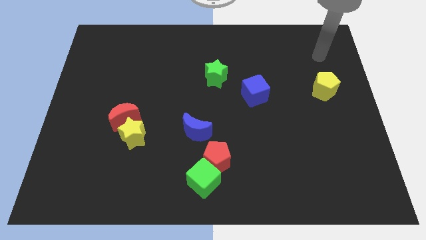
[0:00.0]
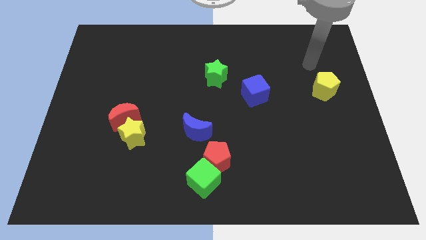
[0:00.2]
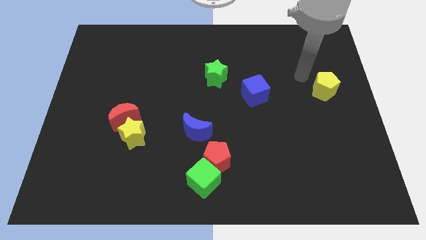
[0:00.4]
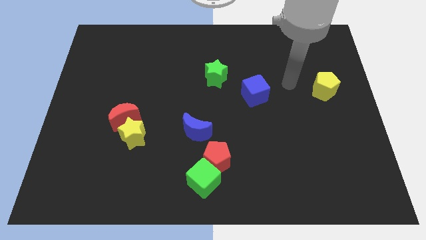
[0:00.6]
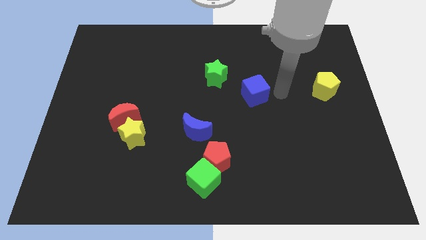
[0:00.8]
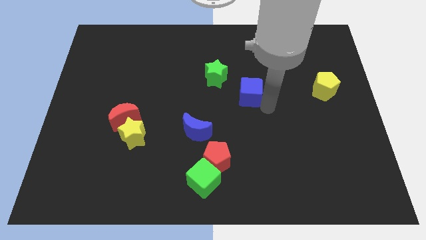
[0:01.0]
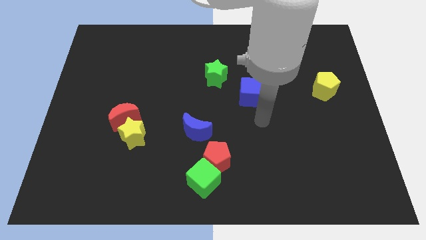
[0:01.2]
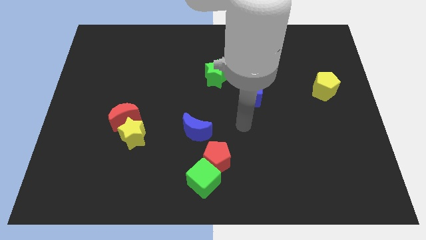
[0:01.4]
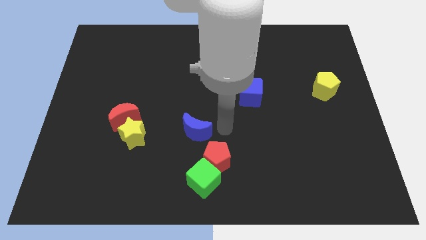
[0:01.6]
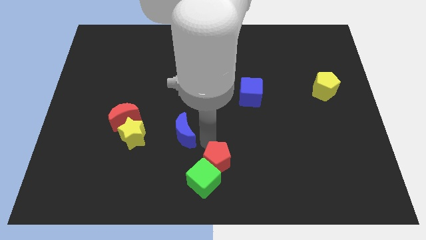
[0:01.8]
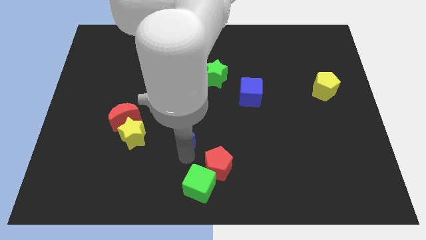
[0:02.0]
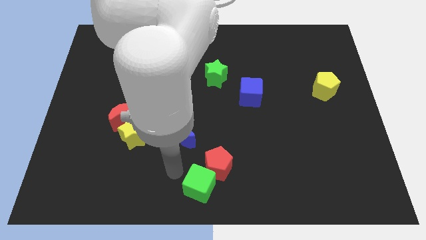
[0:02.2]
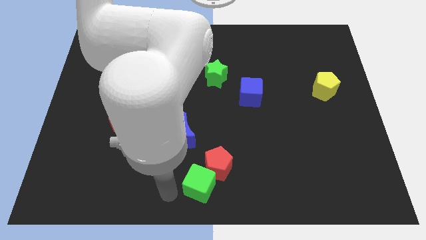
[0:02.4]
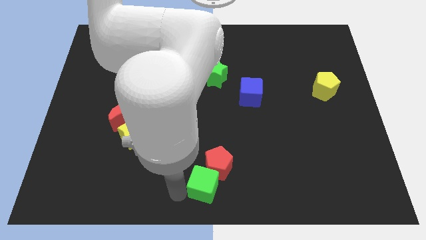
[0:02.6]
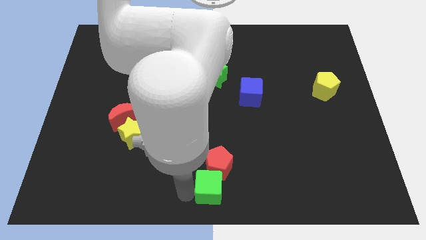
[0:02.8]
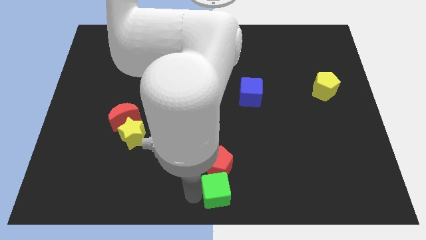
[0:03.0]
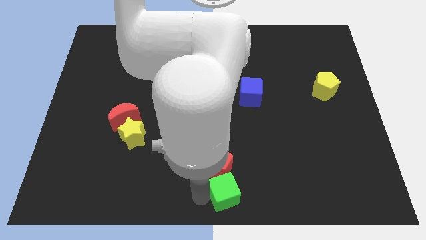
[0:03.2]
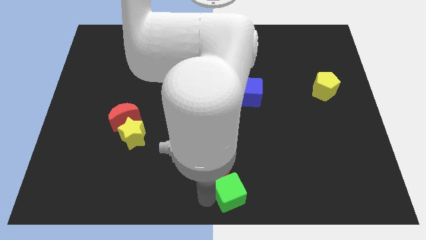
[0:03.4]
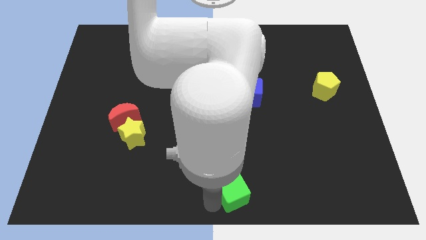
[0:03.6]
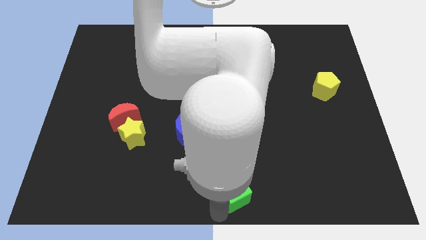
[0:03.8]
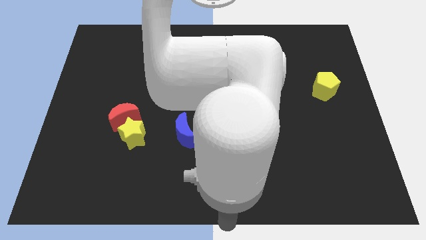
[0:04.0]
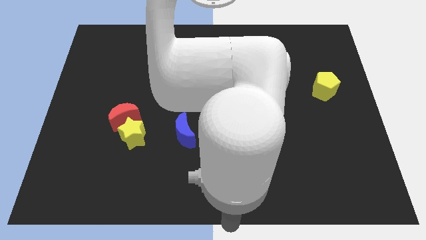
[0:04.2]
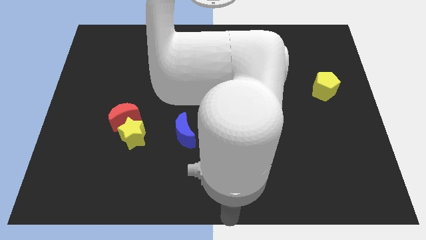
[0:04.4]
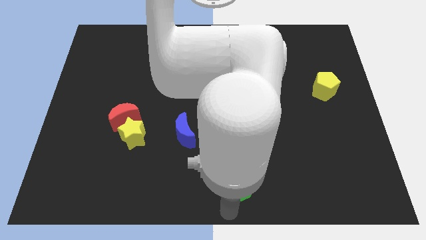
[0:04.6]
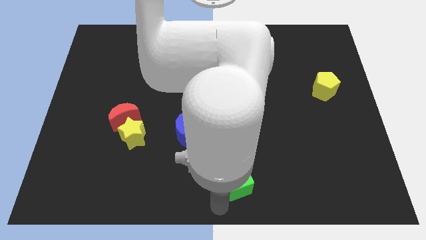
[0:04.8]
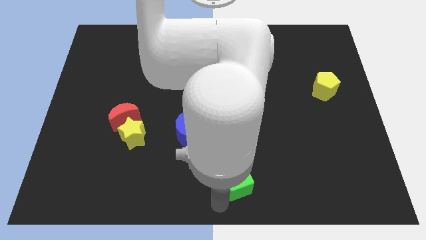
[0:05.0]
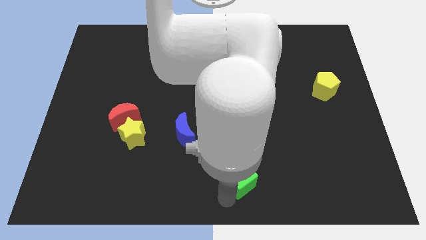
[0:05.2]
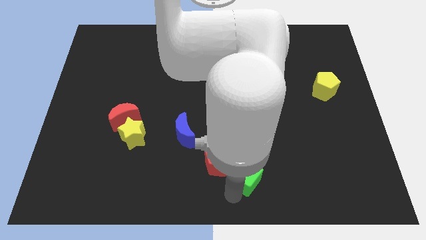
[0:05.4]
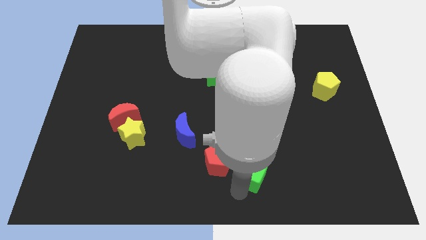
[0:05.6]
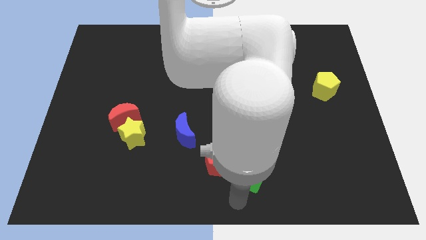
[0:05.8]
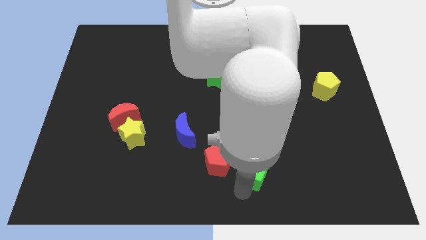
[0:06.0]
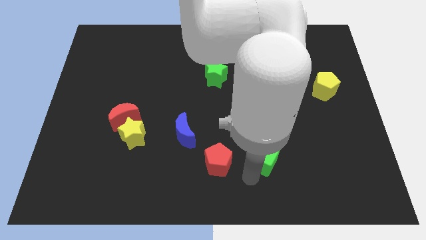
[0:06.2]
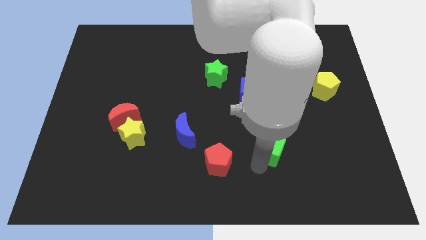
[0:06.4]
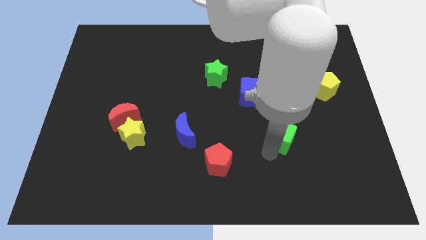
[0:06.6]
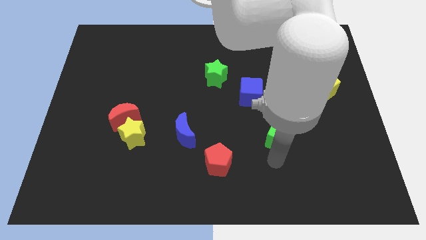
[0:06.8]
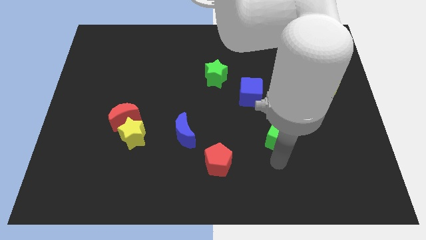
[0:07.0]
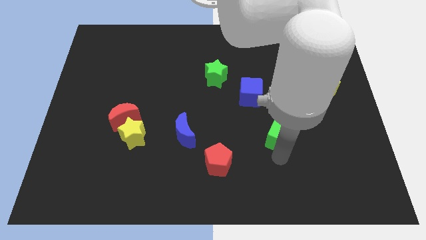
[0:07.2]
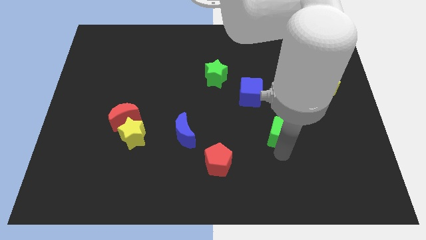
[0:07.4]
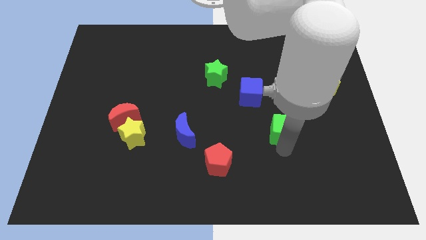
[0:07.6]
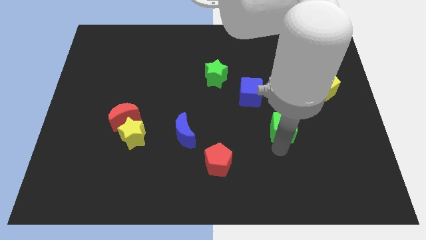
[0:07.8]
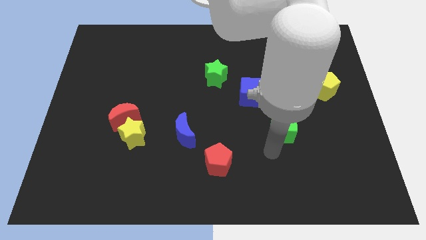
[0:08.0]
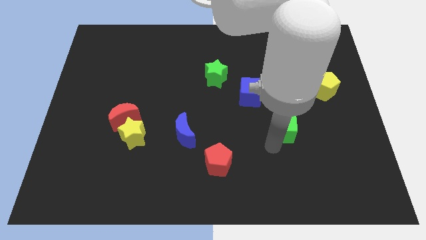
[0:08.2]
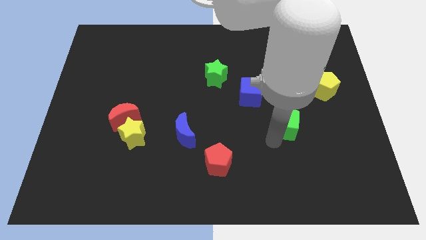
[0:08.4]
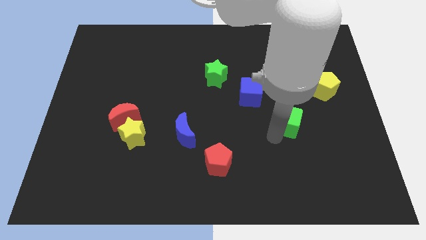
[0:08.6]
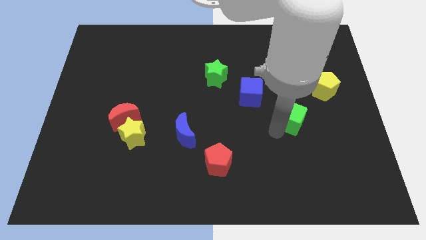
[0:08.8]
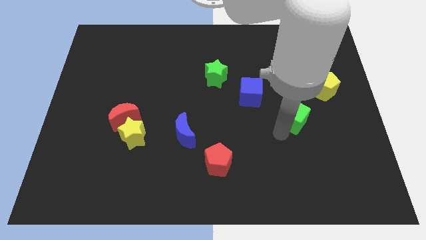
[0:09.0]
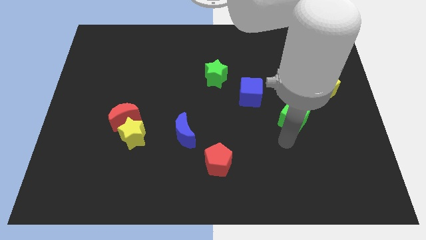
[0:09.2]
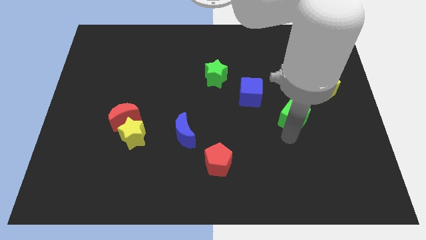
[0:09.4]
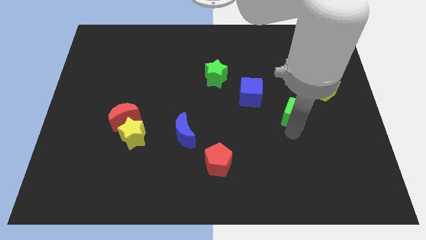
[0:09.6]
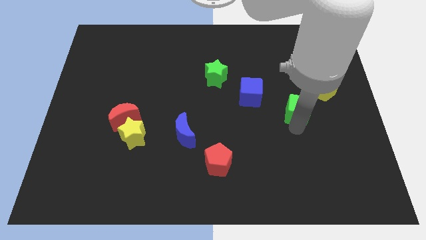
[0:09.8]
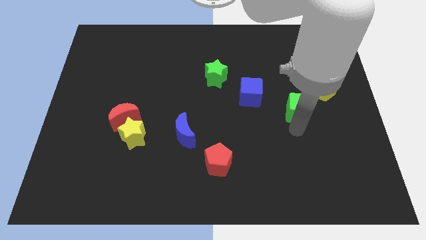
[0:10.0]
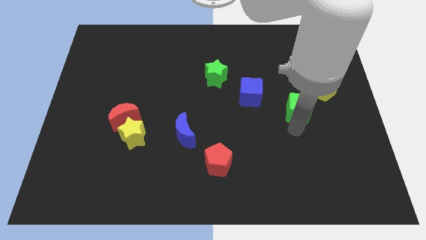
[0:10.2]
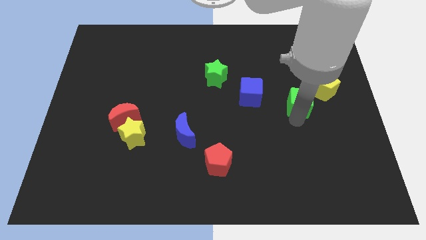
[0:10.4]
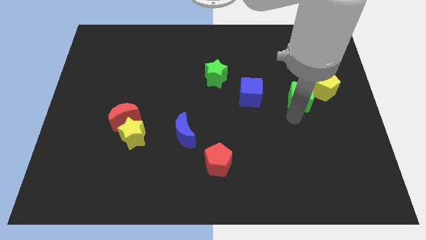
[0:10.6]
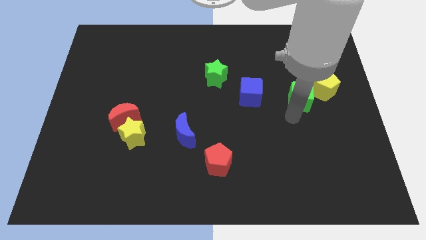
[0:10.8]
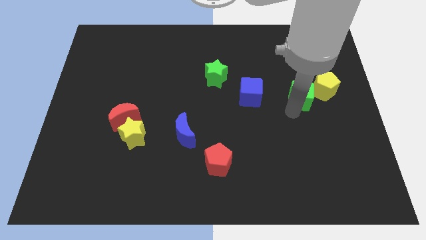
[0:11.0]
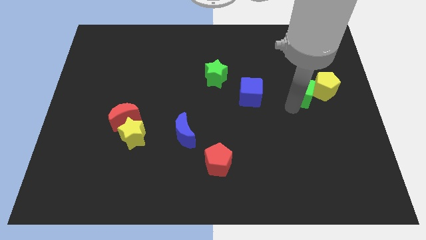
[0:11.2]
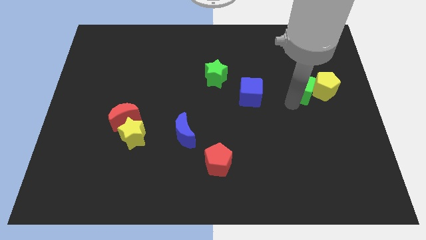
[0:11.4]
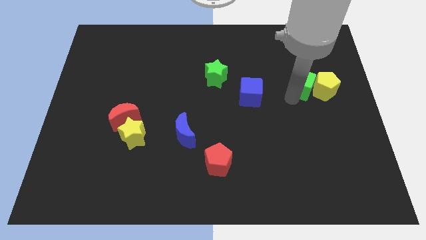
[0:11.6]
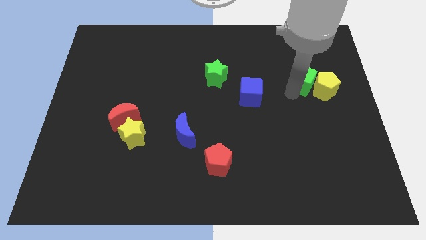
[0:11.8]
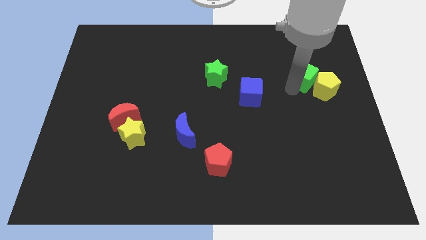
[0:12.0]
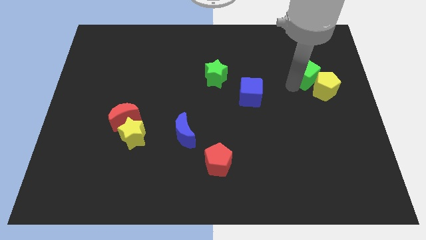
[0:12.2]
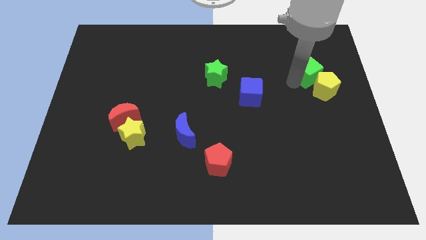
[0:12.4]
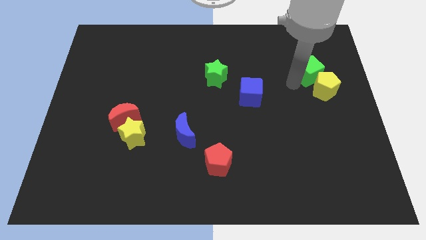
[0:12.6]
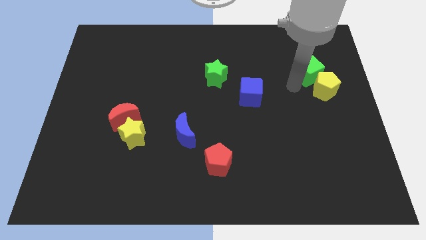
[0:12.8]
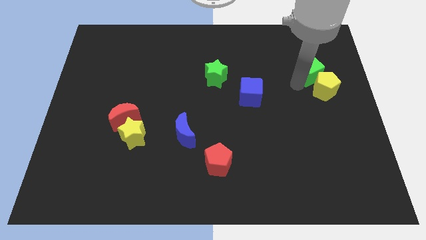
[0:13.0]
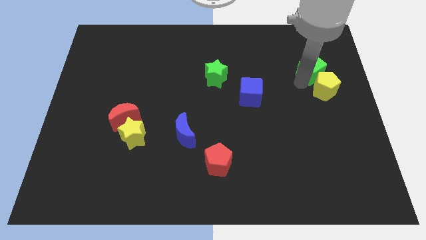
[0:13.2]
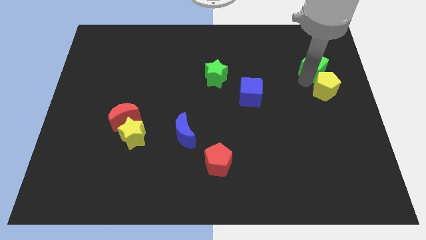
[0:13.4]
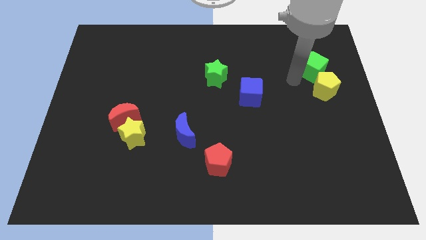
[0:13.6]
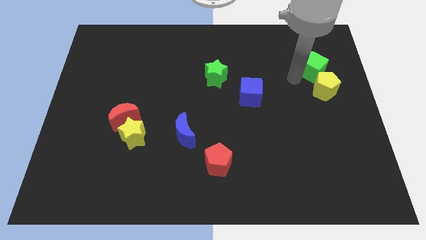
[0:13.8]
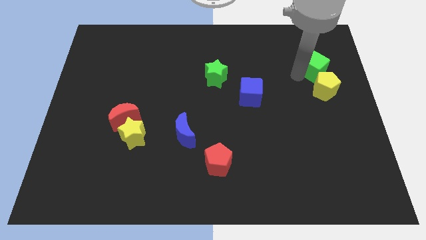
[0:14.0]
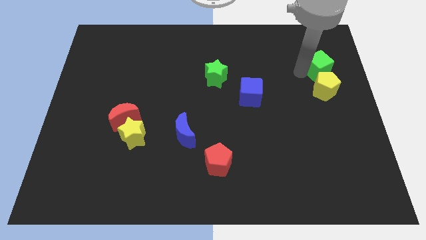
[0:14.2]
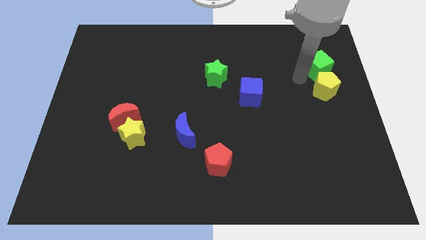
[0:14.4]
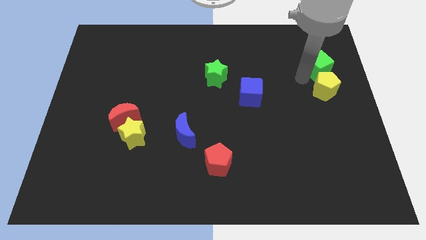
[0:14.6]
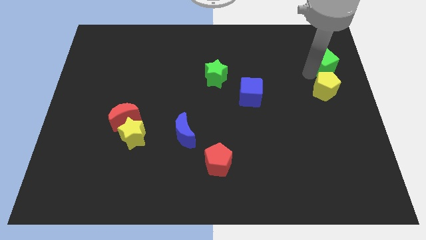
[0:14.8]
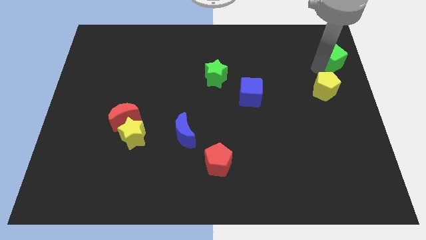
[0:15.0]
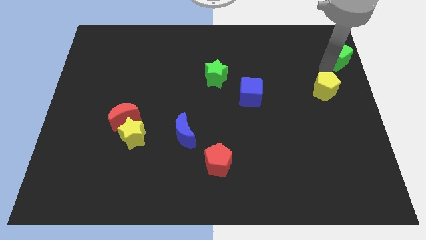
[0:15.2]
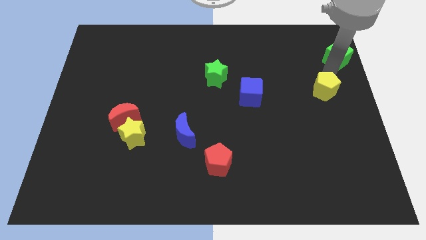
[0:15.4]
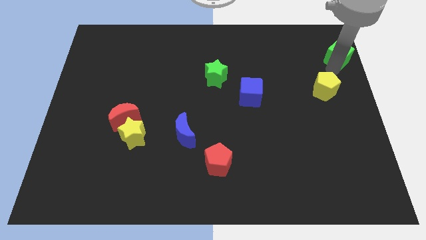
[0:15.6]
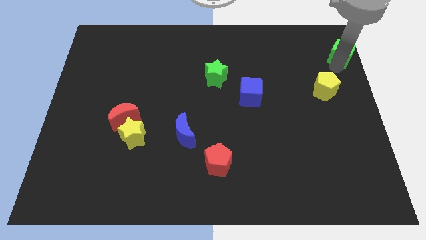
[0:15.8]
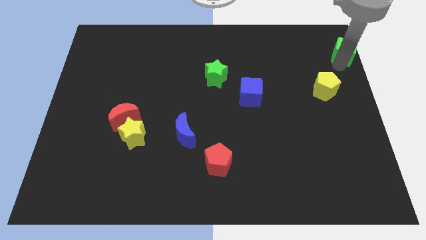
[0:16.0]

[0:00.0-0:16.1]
put the green cube to the top right of the board
